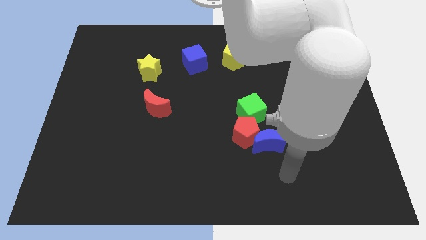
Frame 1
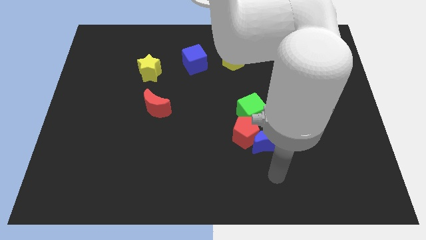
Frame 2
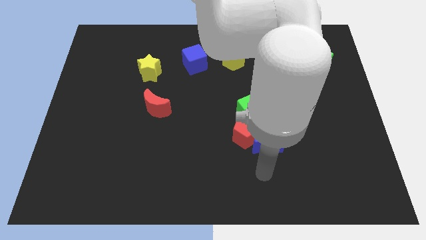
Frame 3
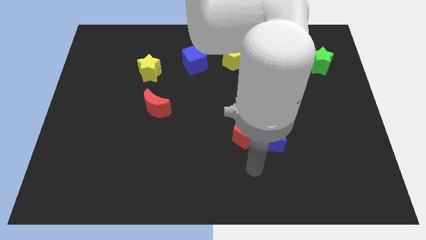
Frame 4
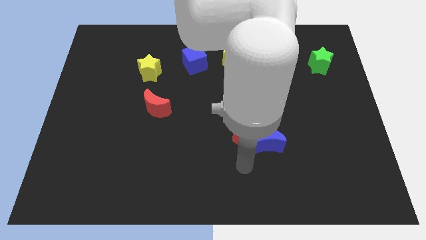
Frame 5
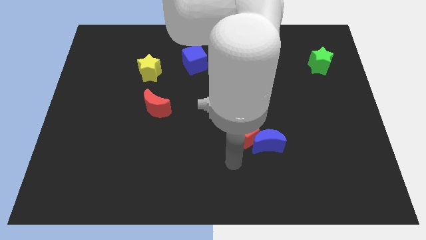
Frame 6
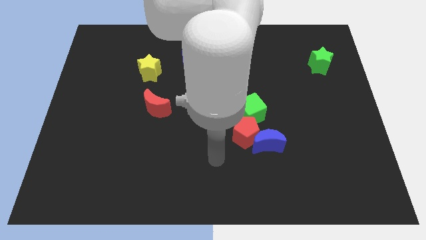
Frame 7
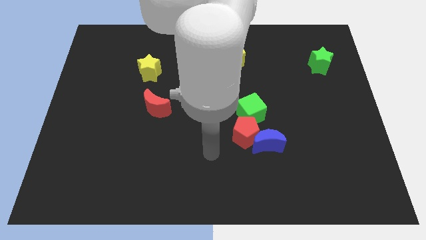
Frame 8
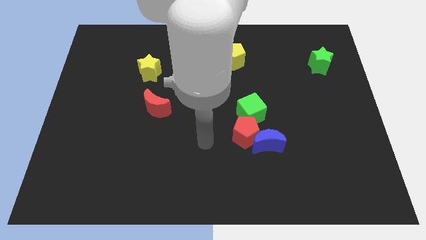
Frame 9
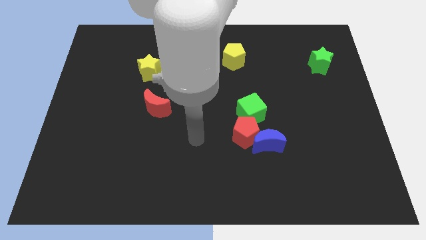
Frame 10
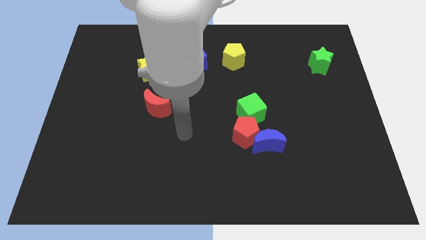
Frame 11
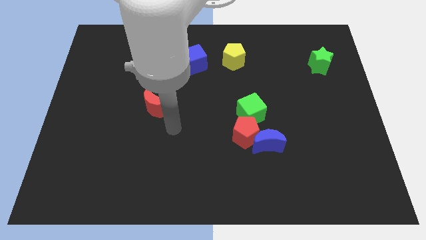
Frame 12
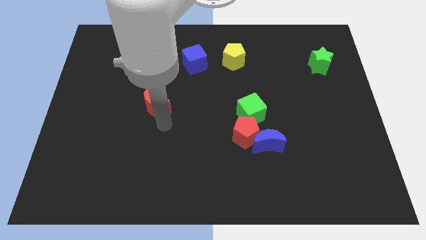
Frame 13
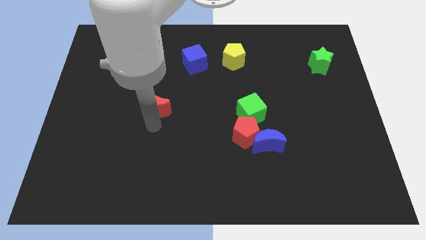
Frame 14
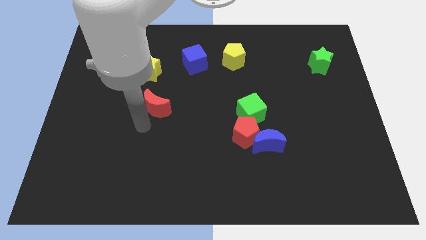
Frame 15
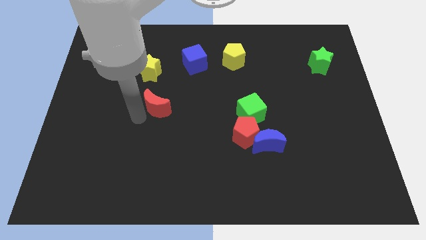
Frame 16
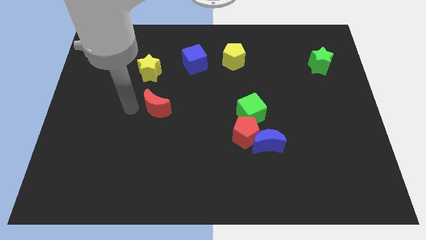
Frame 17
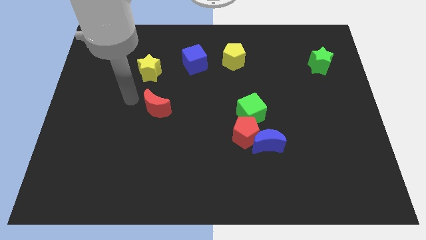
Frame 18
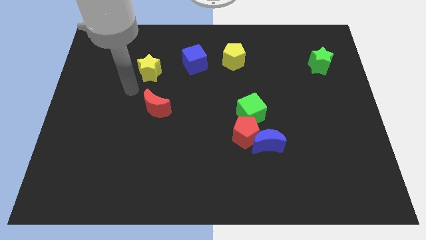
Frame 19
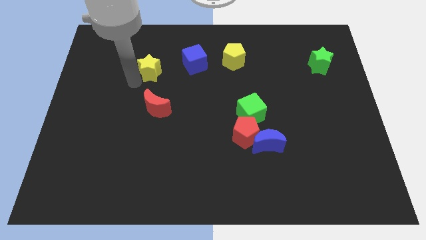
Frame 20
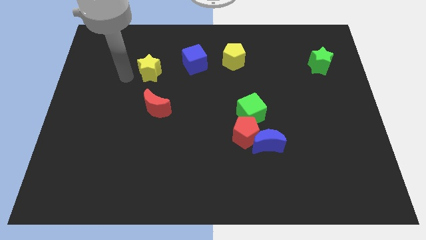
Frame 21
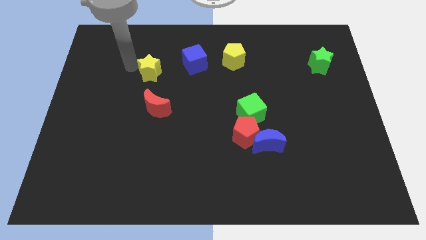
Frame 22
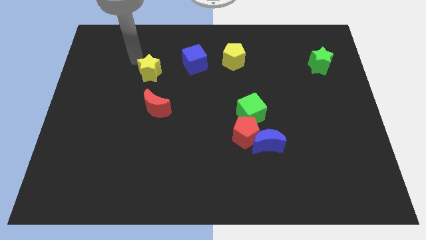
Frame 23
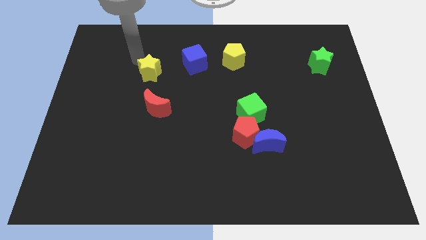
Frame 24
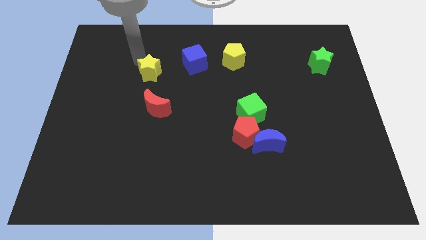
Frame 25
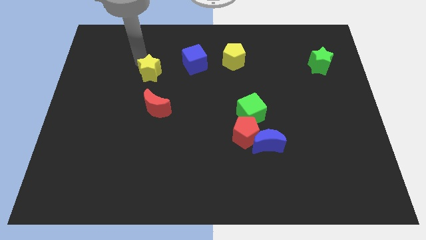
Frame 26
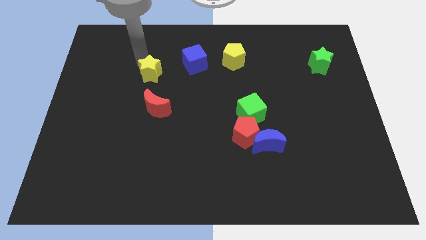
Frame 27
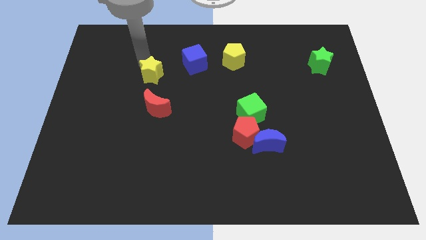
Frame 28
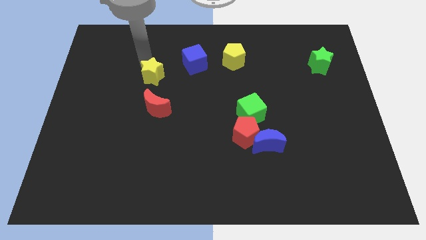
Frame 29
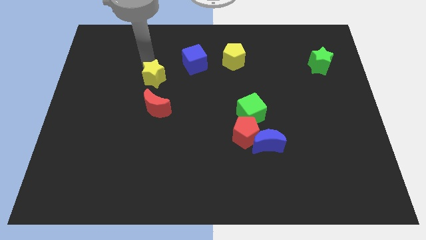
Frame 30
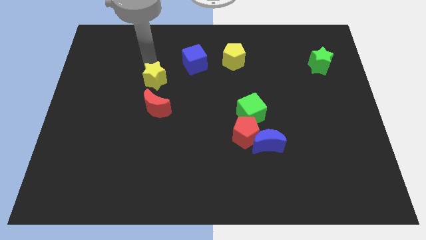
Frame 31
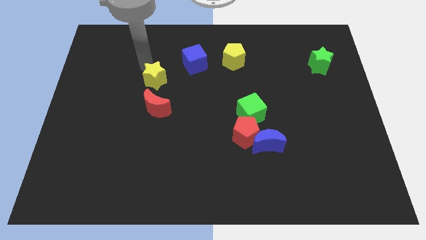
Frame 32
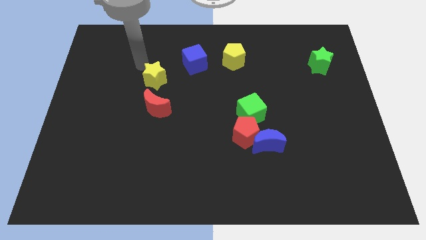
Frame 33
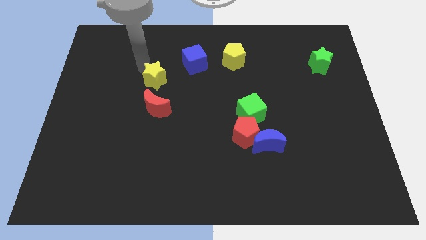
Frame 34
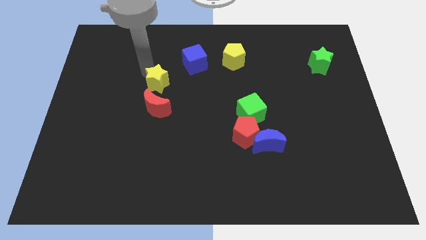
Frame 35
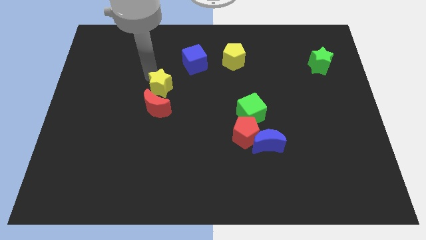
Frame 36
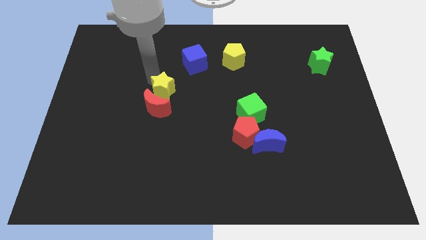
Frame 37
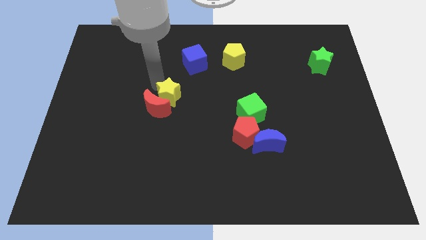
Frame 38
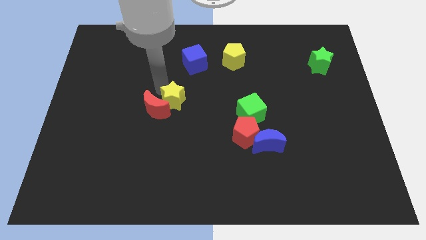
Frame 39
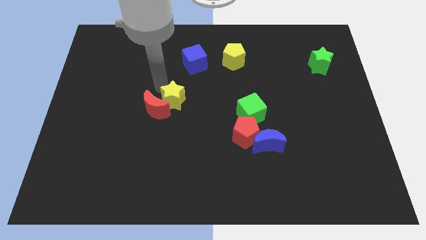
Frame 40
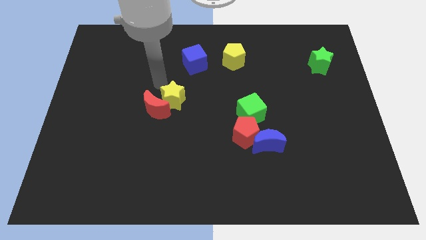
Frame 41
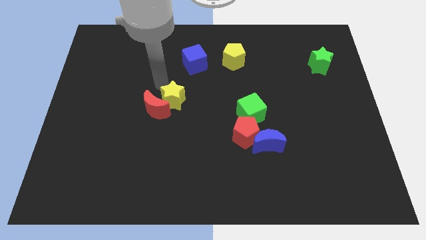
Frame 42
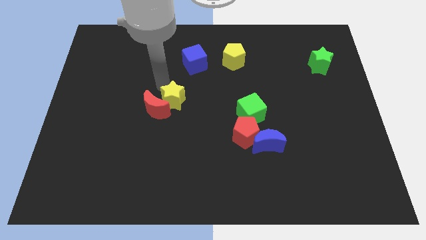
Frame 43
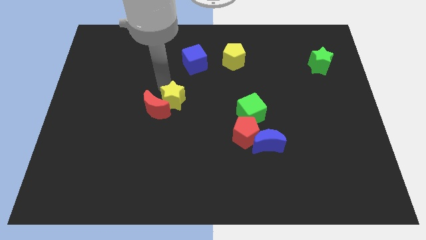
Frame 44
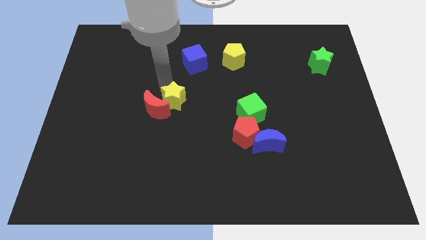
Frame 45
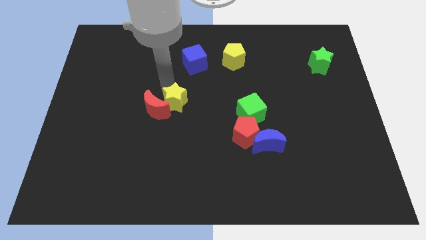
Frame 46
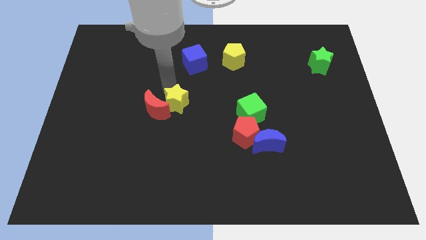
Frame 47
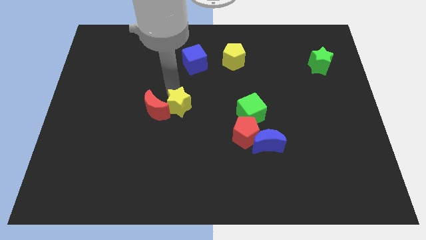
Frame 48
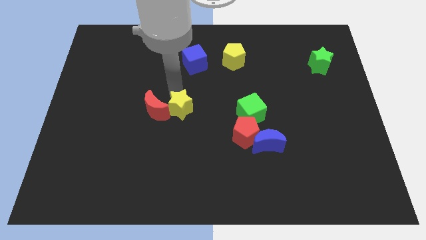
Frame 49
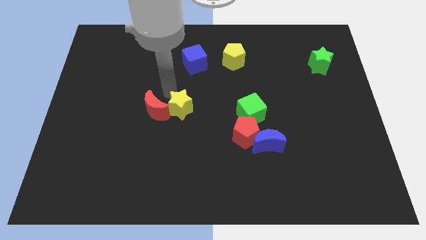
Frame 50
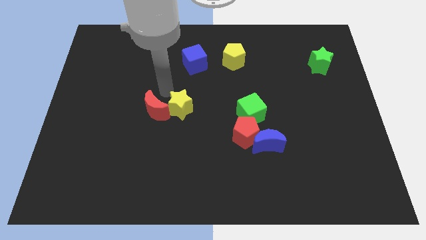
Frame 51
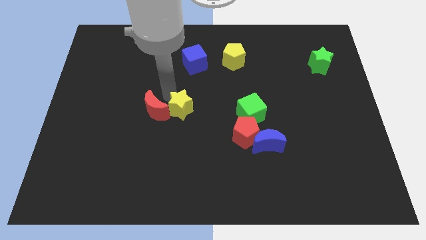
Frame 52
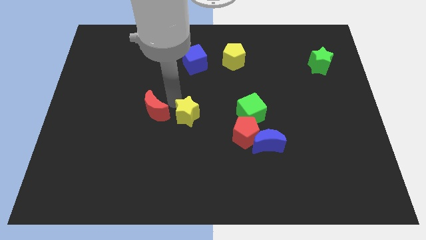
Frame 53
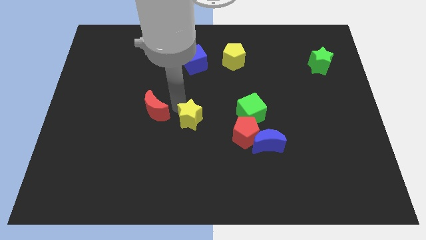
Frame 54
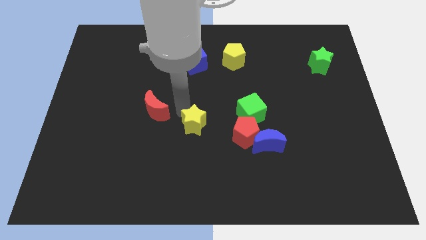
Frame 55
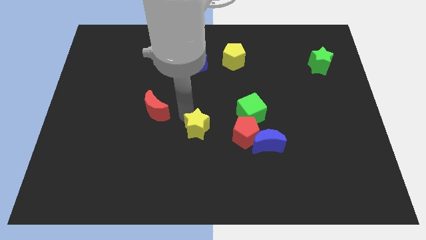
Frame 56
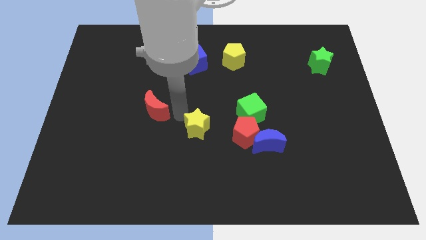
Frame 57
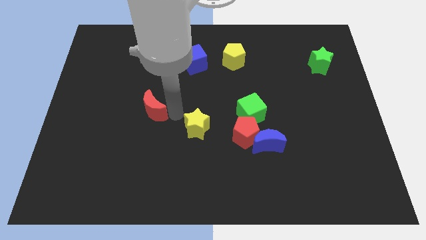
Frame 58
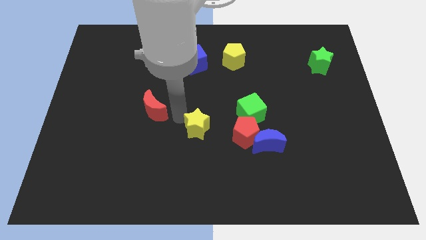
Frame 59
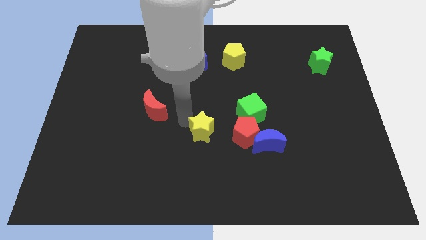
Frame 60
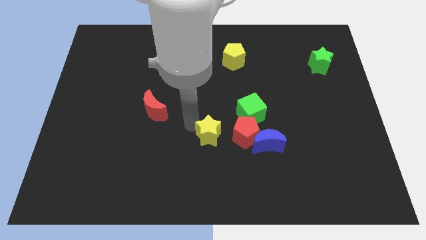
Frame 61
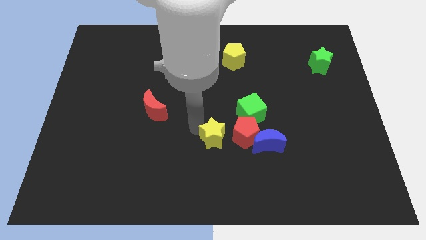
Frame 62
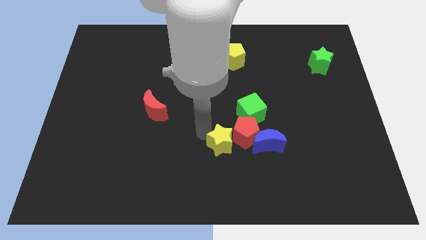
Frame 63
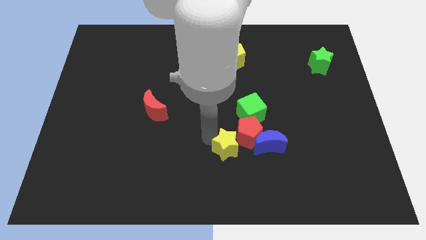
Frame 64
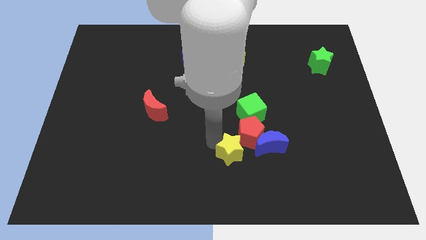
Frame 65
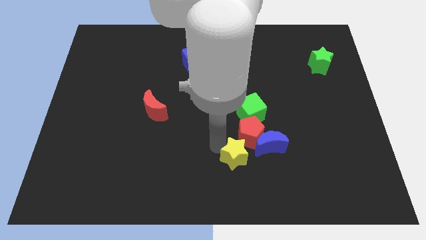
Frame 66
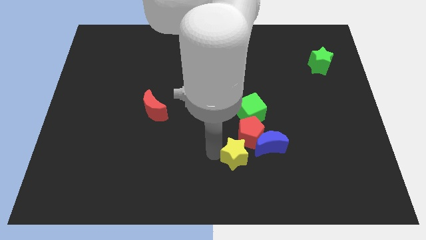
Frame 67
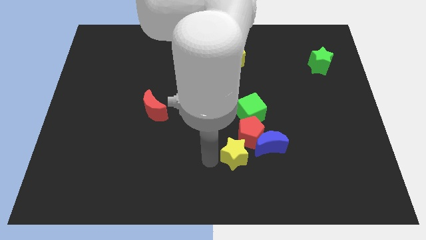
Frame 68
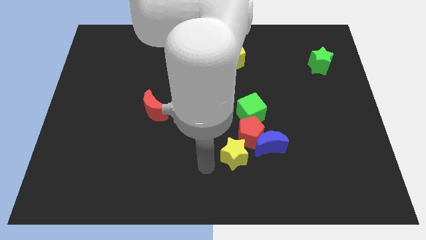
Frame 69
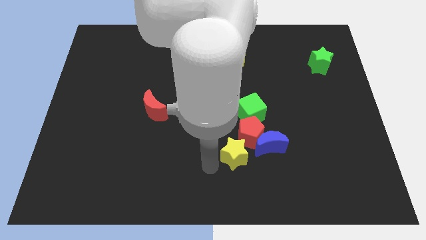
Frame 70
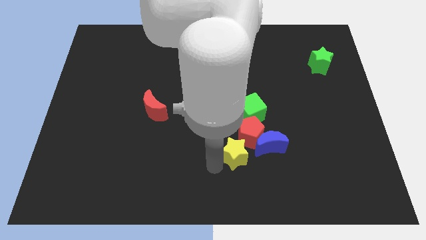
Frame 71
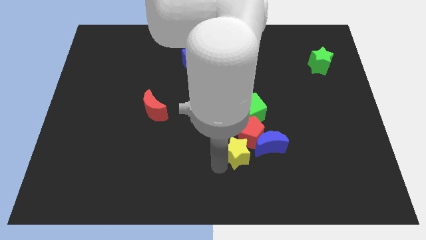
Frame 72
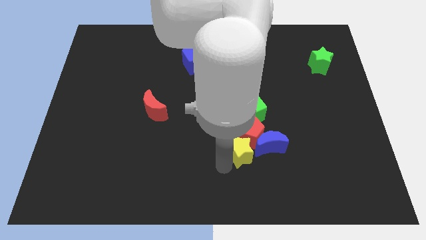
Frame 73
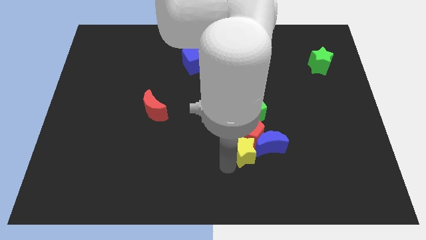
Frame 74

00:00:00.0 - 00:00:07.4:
push the yellow star to the blue moon
